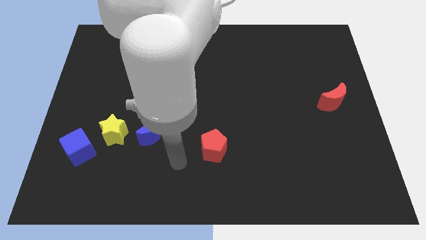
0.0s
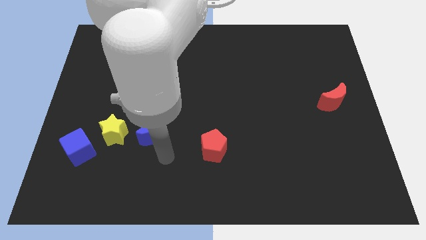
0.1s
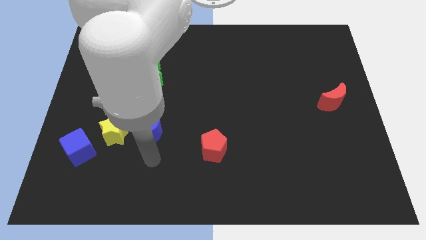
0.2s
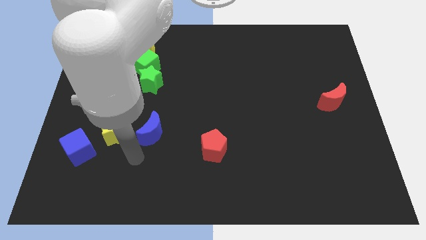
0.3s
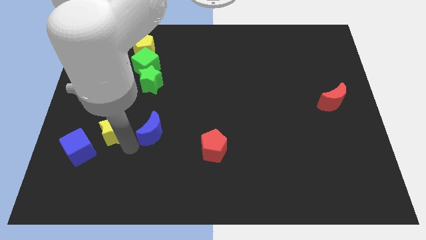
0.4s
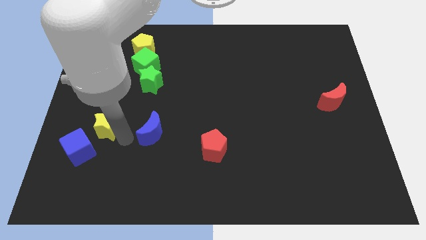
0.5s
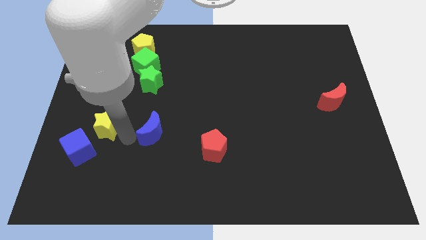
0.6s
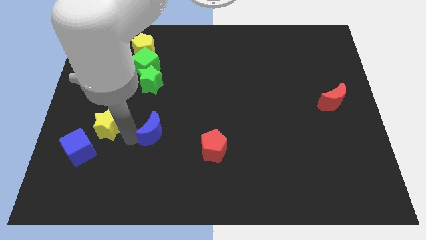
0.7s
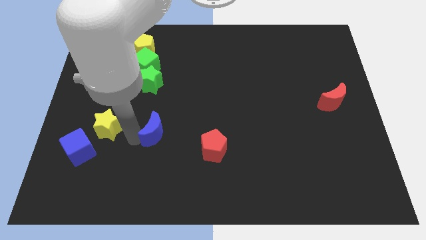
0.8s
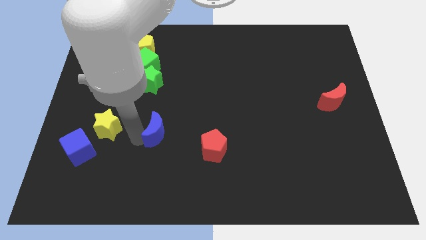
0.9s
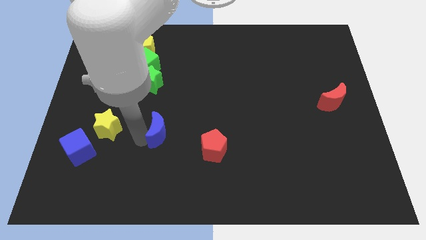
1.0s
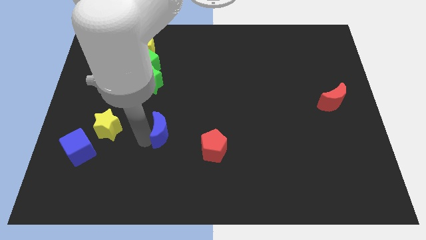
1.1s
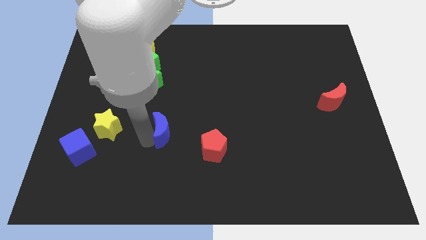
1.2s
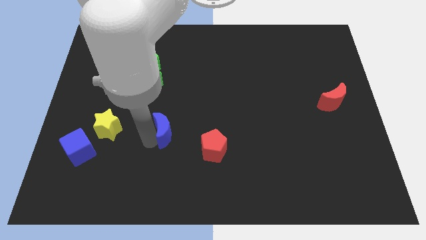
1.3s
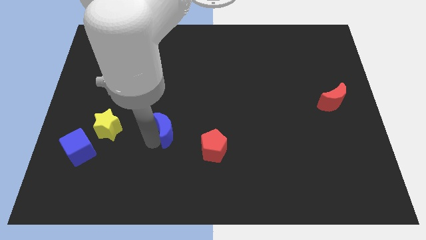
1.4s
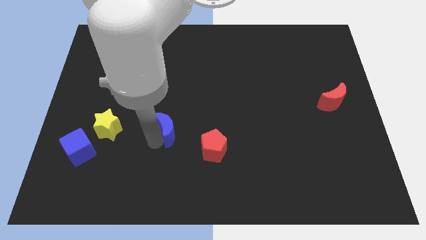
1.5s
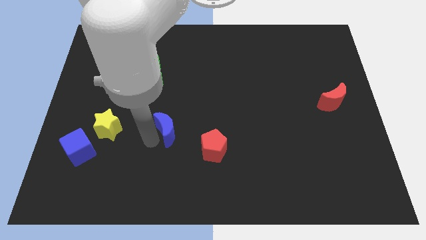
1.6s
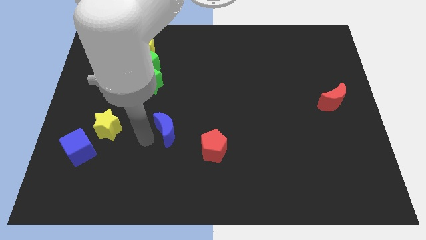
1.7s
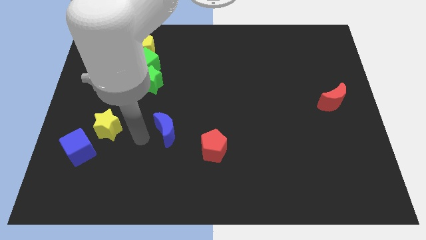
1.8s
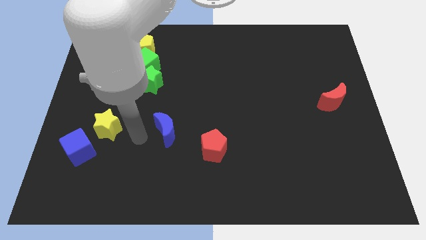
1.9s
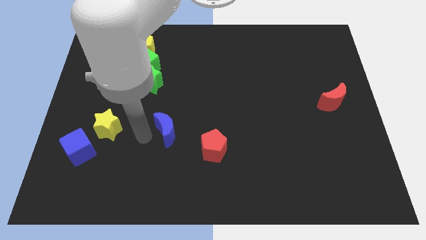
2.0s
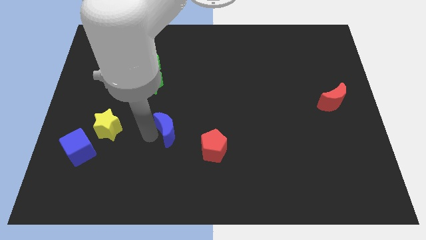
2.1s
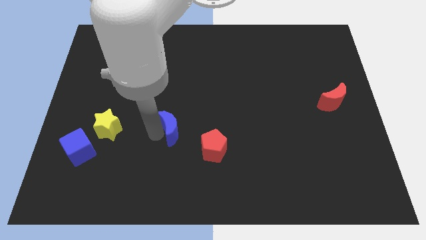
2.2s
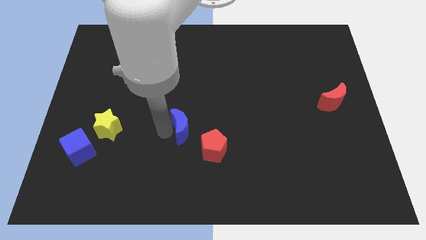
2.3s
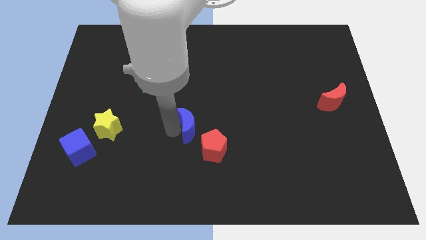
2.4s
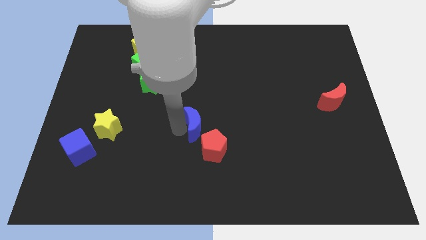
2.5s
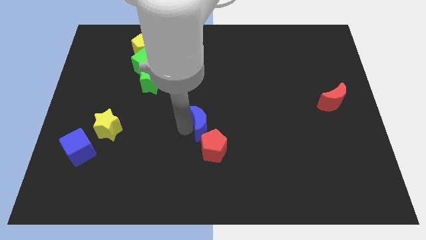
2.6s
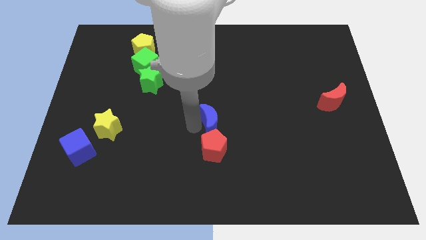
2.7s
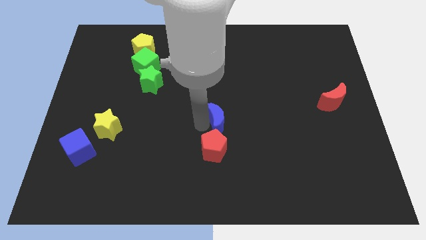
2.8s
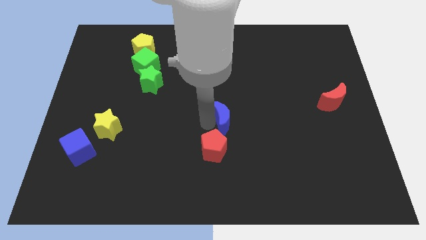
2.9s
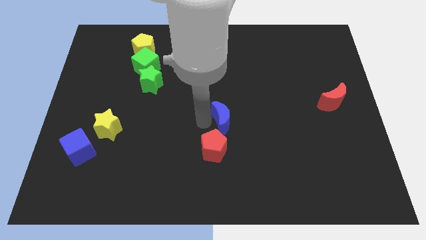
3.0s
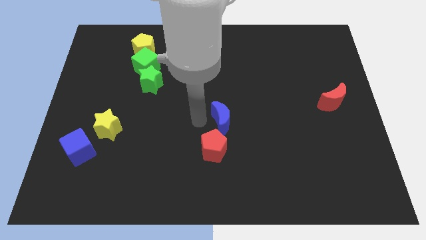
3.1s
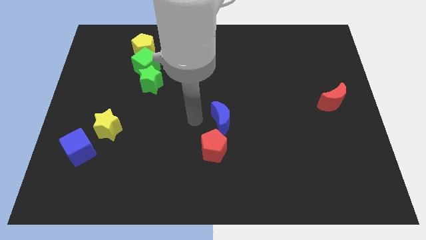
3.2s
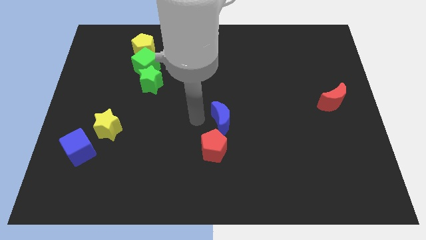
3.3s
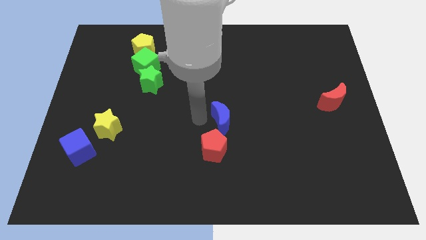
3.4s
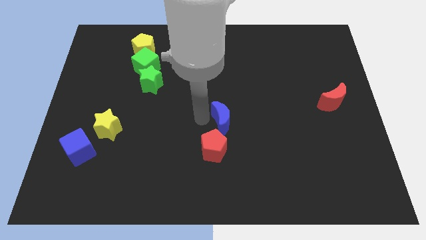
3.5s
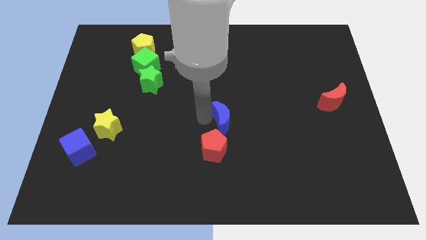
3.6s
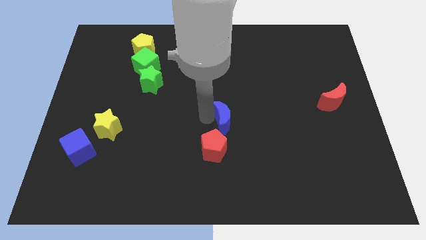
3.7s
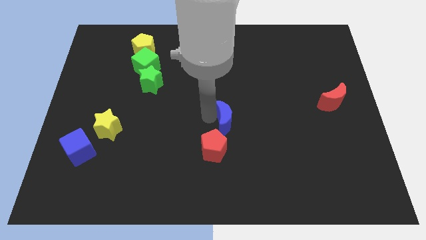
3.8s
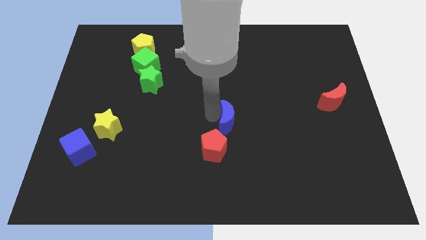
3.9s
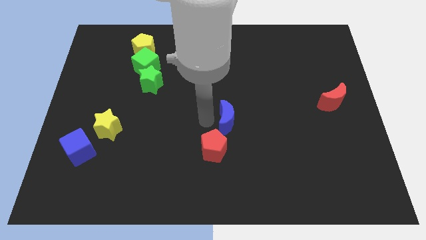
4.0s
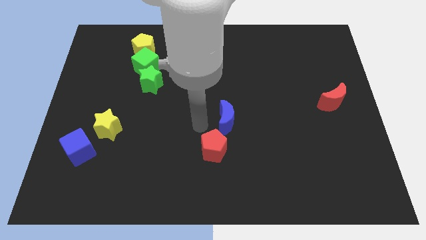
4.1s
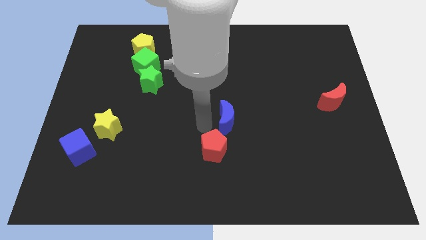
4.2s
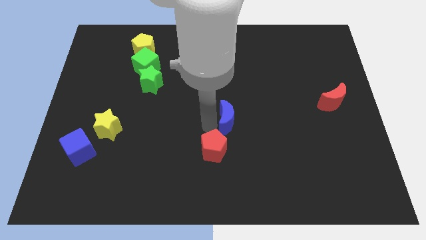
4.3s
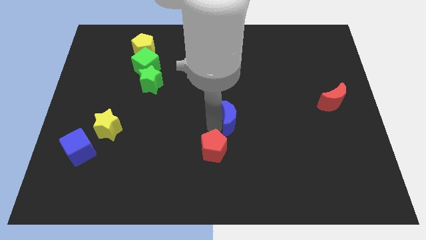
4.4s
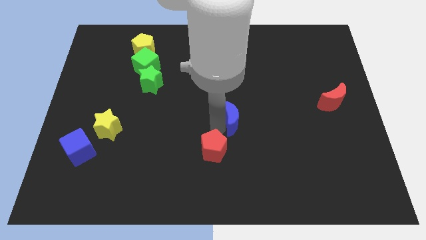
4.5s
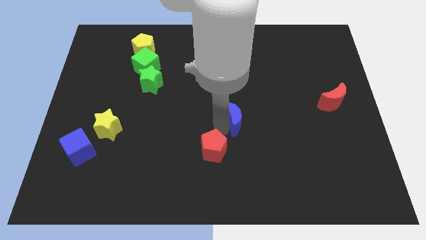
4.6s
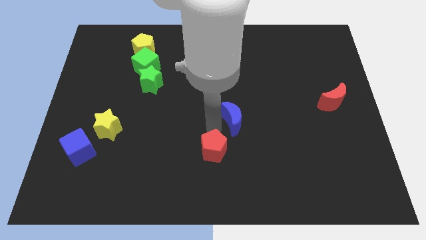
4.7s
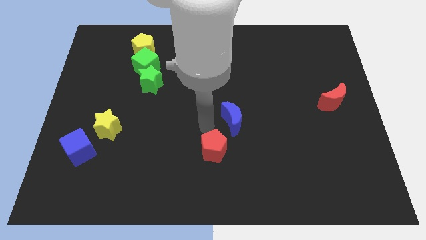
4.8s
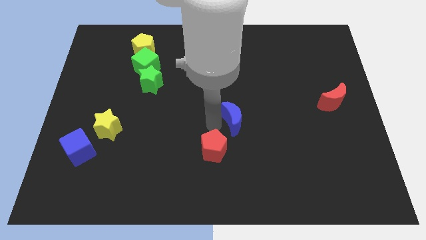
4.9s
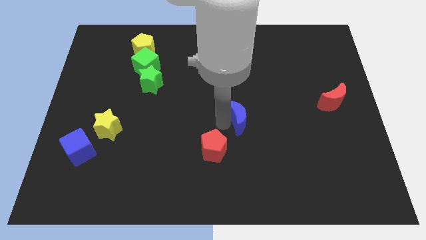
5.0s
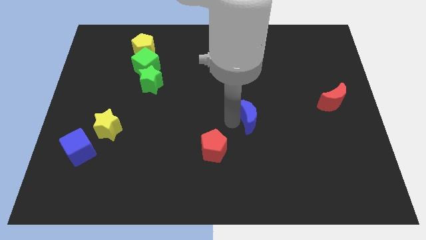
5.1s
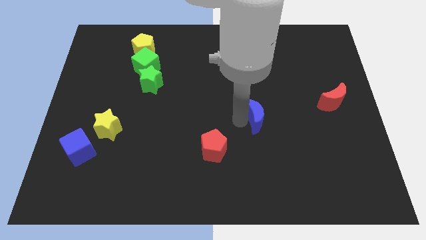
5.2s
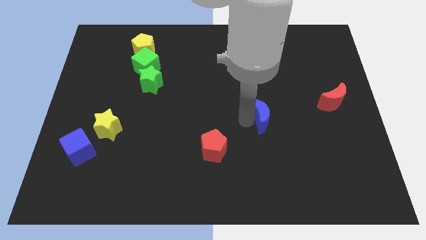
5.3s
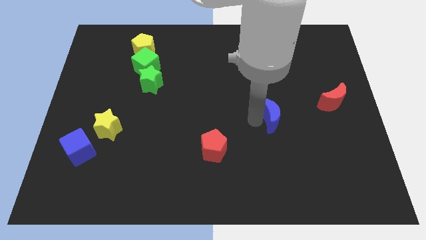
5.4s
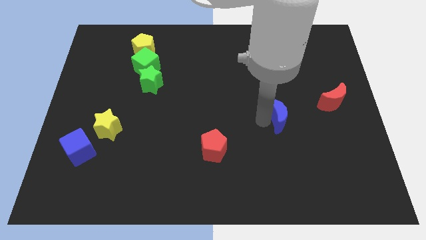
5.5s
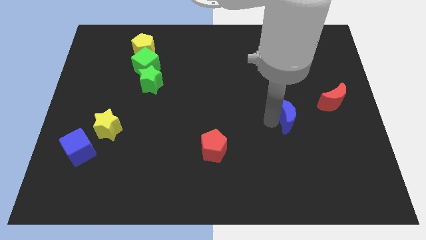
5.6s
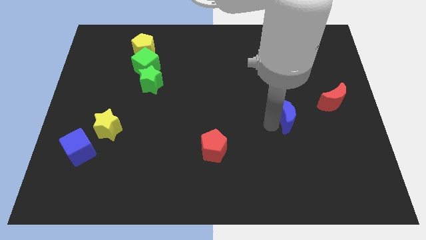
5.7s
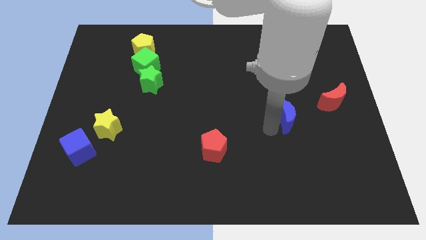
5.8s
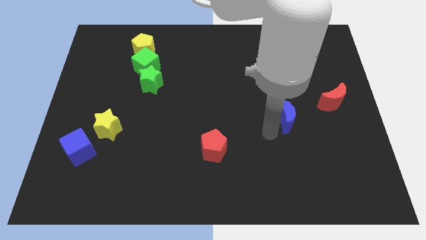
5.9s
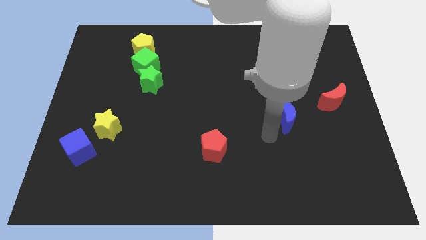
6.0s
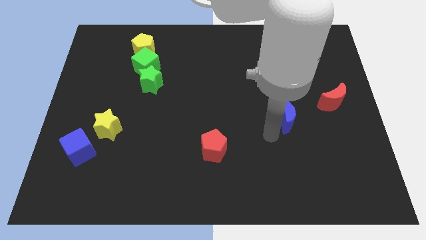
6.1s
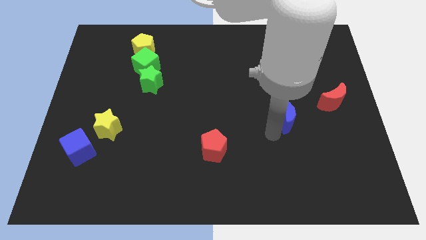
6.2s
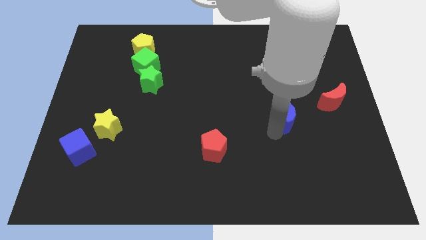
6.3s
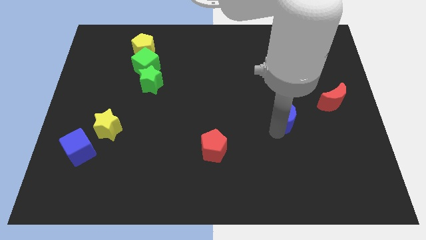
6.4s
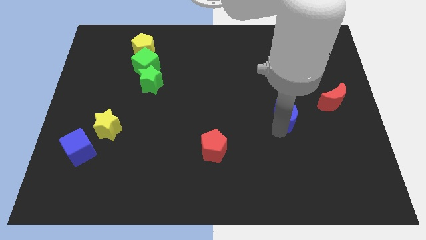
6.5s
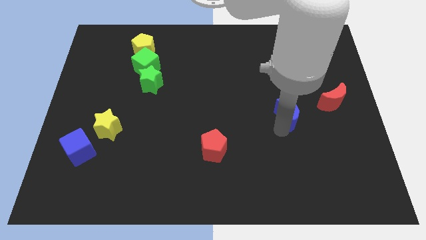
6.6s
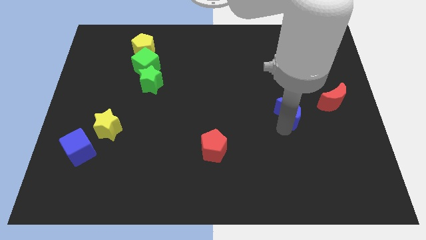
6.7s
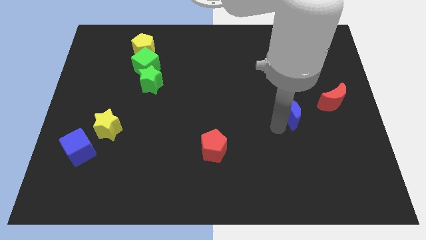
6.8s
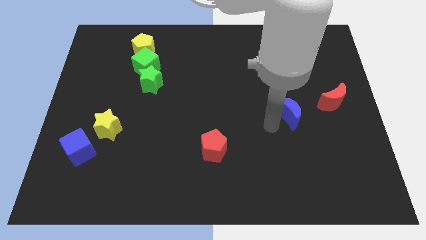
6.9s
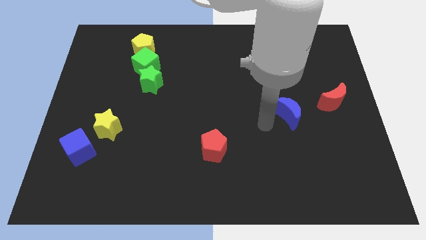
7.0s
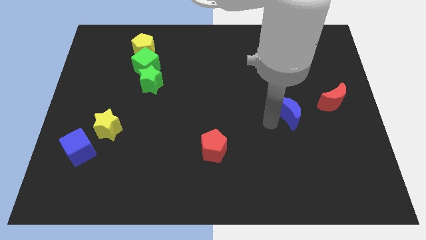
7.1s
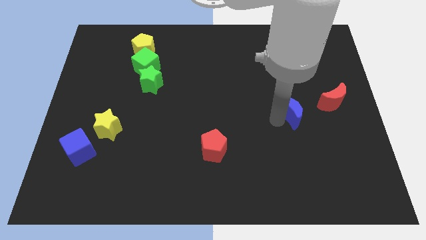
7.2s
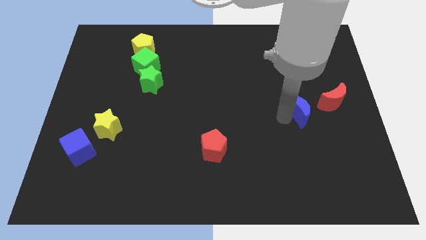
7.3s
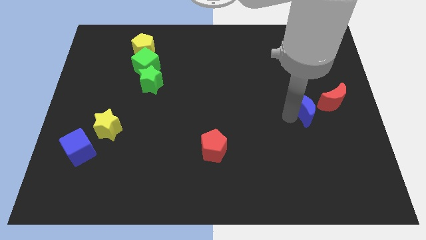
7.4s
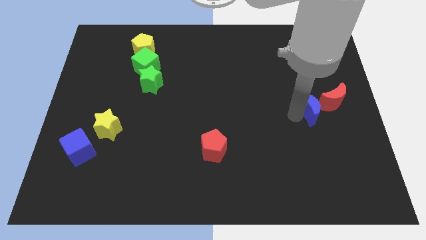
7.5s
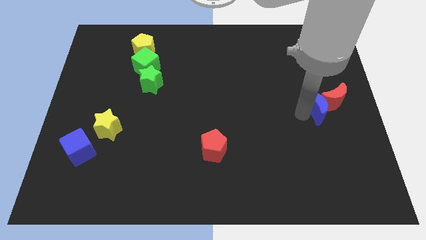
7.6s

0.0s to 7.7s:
slide the blue moon next to the red moon
